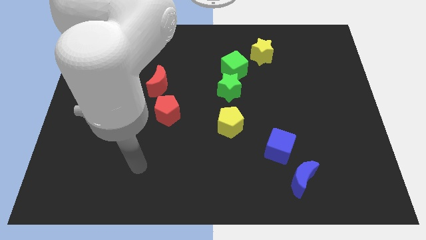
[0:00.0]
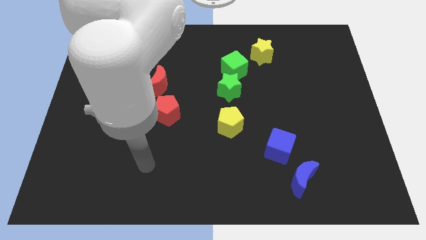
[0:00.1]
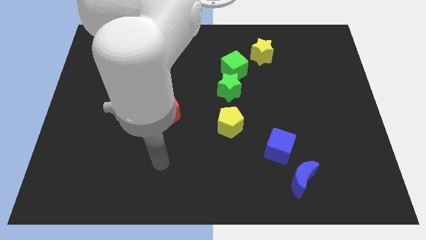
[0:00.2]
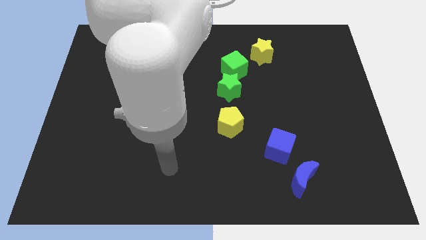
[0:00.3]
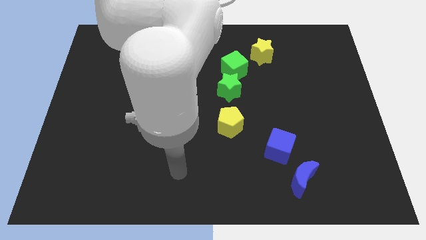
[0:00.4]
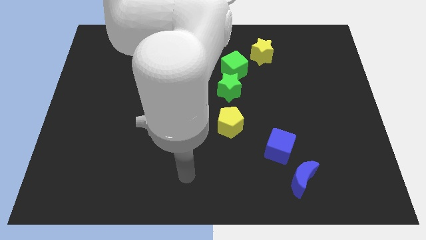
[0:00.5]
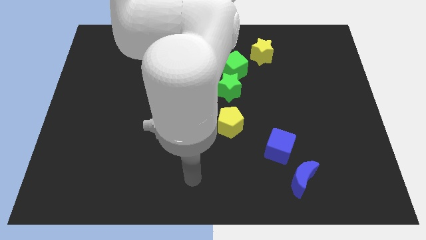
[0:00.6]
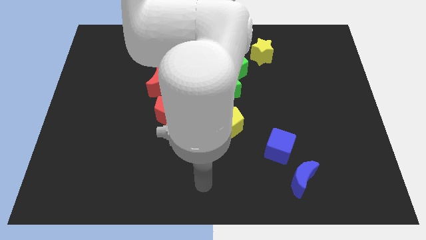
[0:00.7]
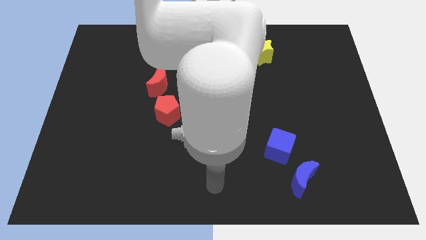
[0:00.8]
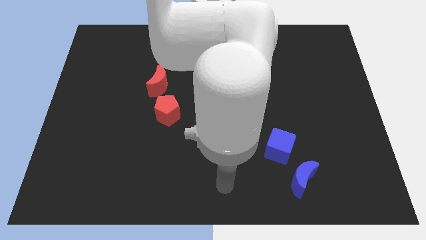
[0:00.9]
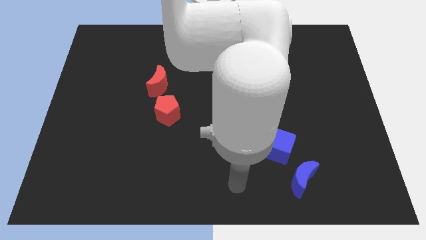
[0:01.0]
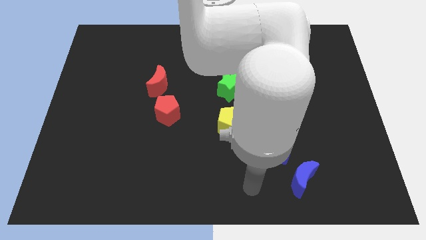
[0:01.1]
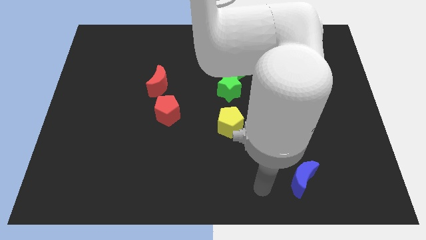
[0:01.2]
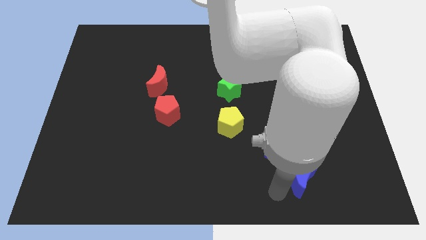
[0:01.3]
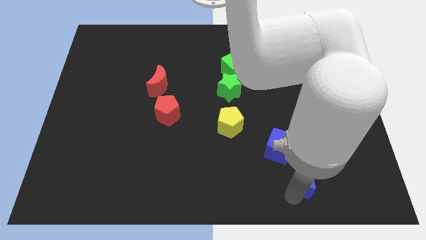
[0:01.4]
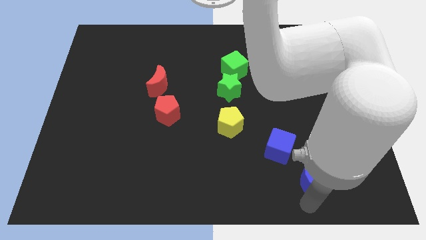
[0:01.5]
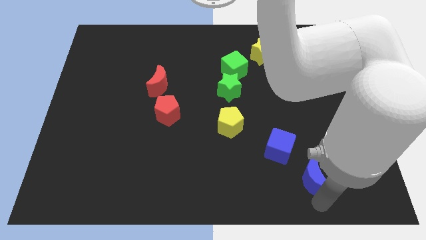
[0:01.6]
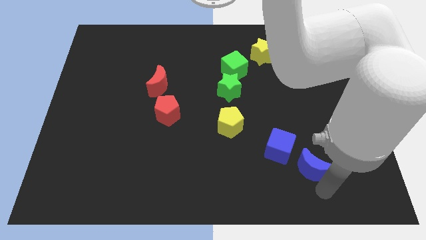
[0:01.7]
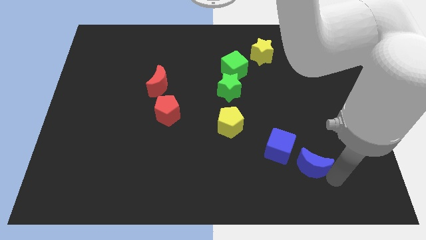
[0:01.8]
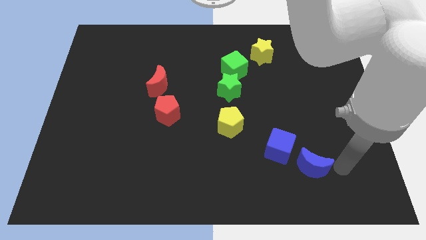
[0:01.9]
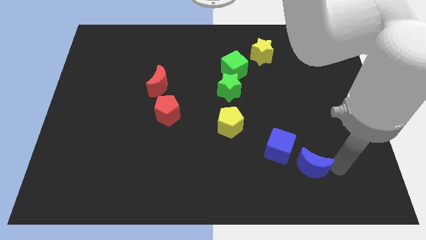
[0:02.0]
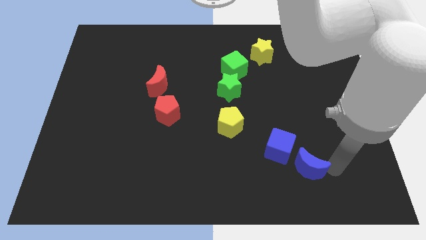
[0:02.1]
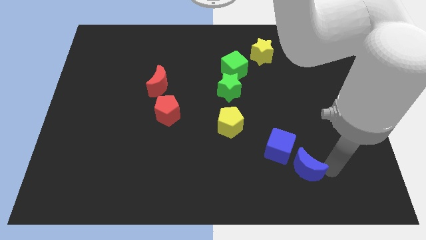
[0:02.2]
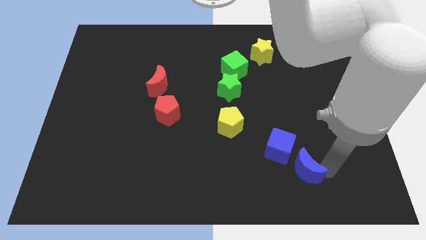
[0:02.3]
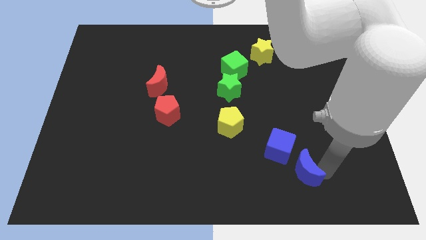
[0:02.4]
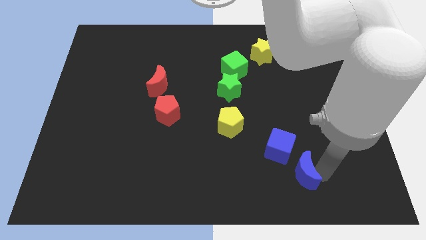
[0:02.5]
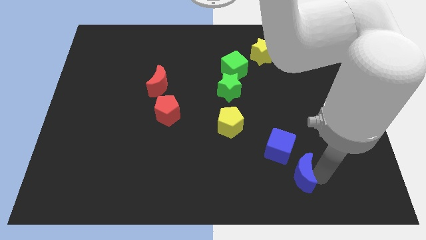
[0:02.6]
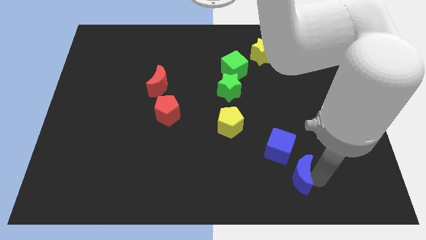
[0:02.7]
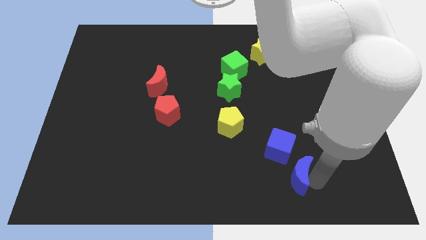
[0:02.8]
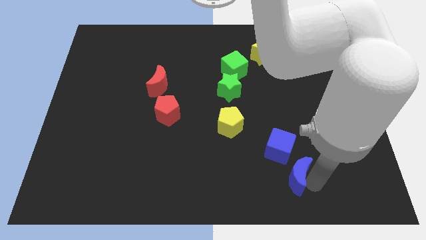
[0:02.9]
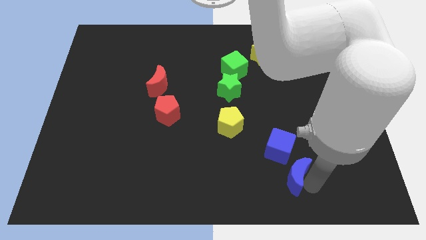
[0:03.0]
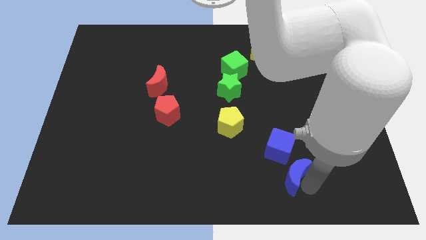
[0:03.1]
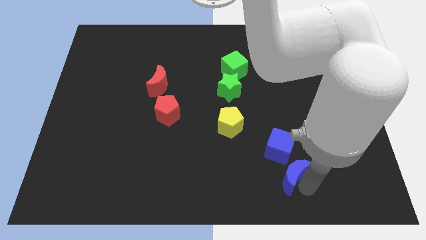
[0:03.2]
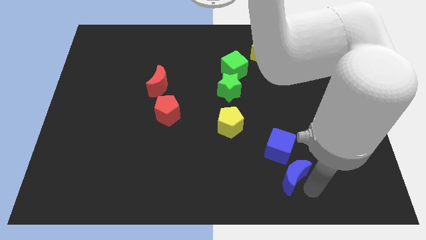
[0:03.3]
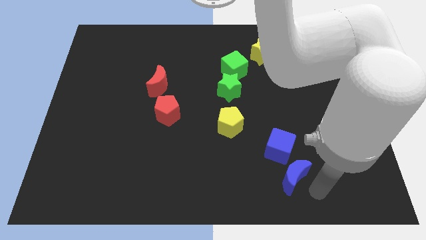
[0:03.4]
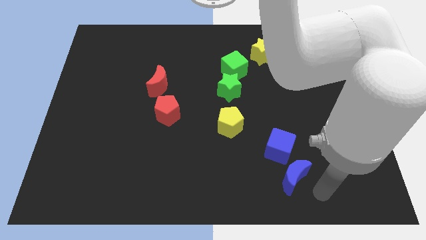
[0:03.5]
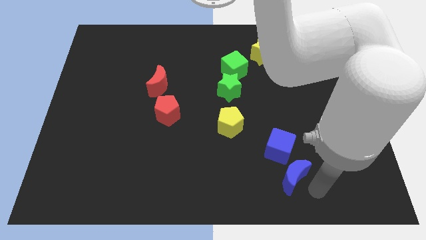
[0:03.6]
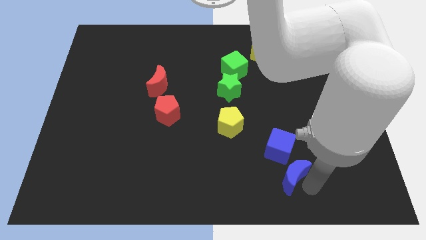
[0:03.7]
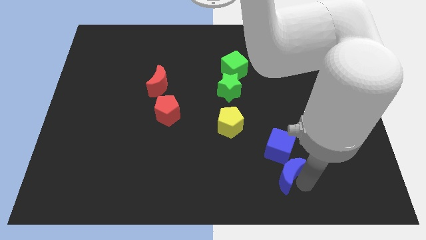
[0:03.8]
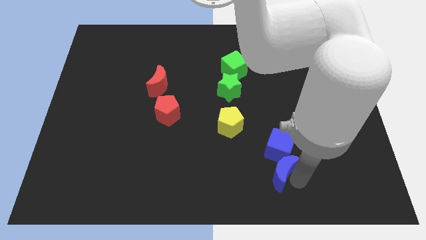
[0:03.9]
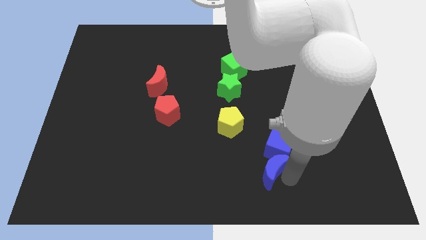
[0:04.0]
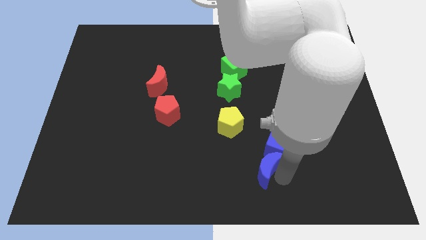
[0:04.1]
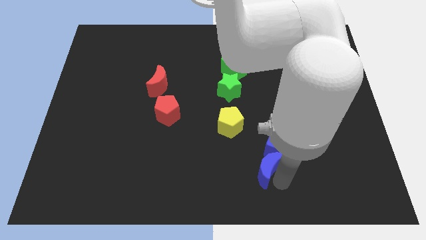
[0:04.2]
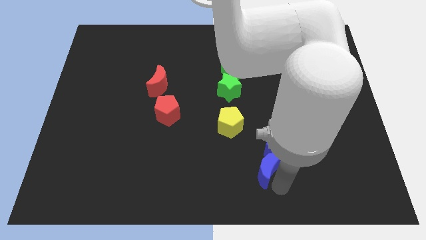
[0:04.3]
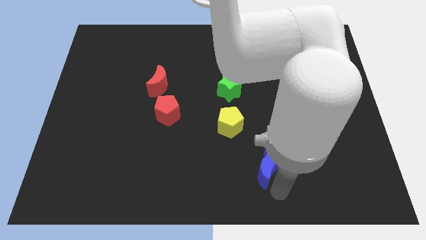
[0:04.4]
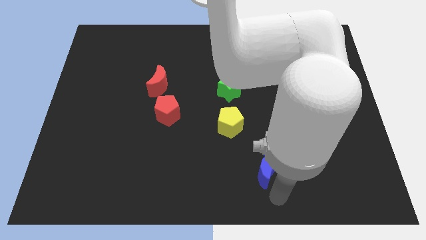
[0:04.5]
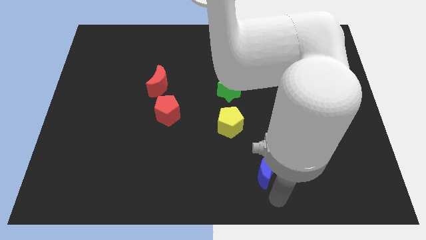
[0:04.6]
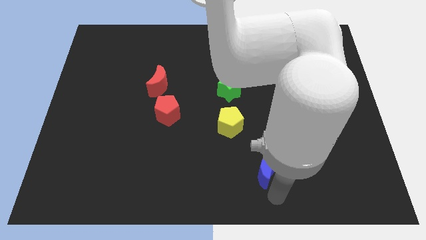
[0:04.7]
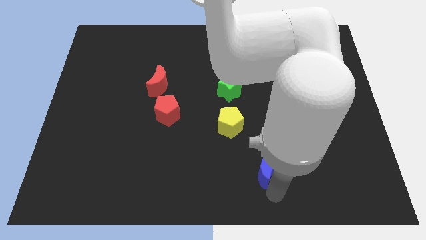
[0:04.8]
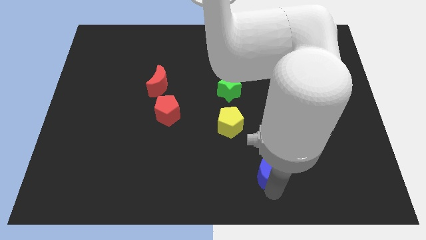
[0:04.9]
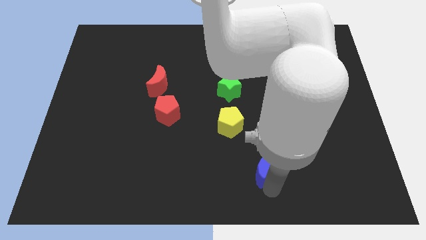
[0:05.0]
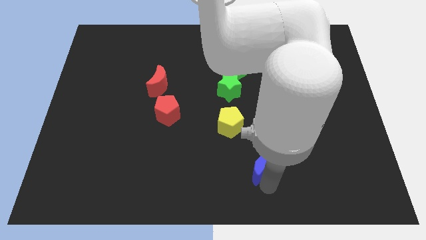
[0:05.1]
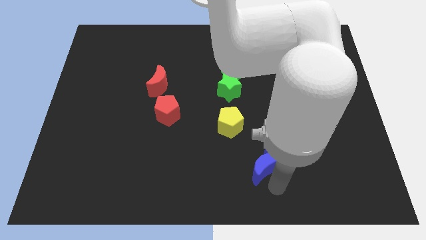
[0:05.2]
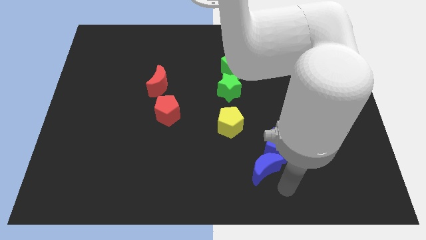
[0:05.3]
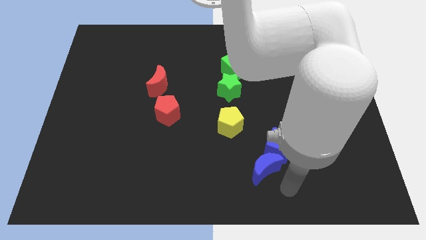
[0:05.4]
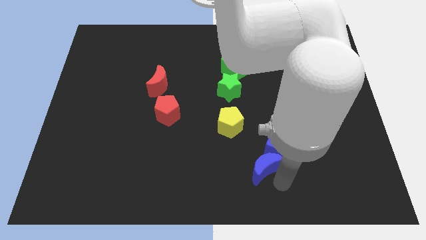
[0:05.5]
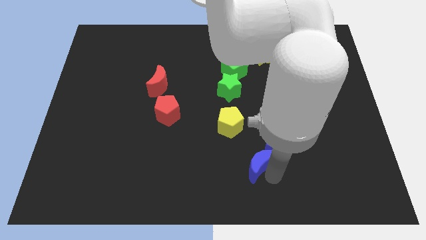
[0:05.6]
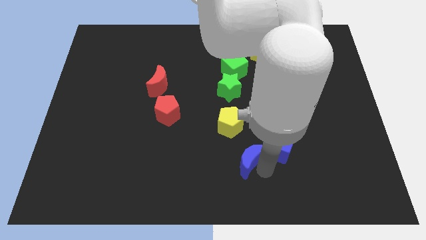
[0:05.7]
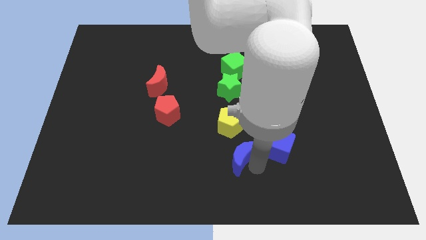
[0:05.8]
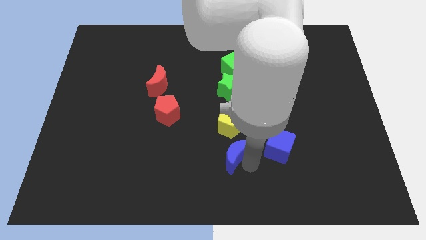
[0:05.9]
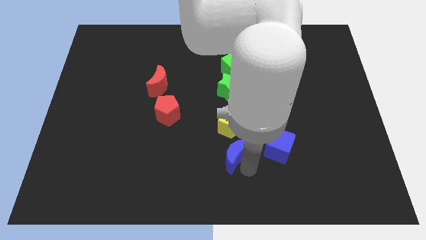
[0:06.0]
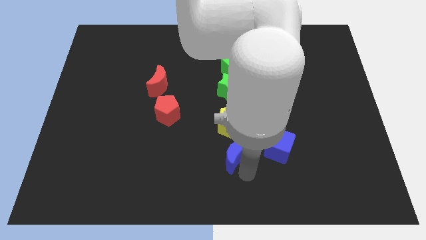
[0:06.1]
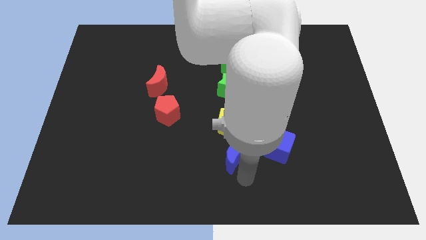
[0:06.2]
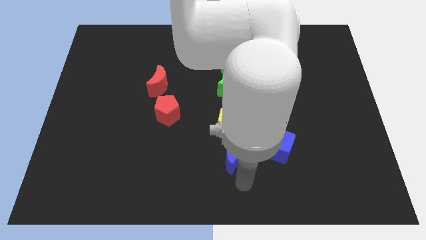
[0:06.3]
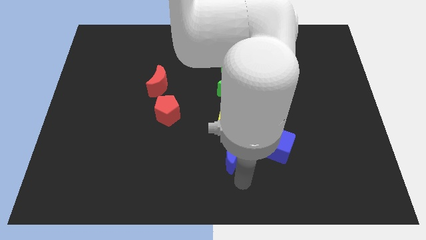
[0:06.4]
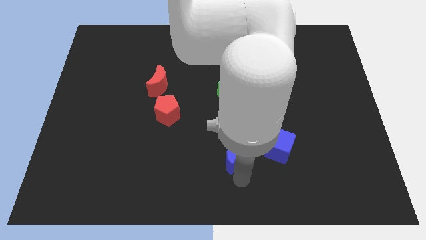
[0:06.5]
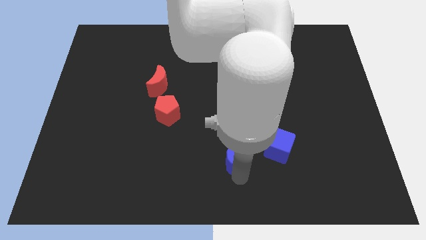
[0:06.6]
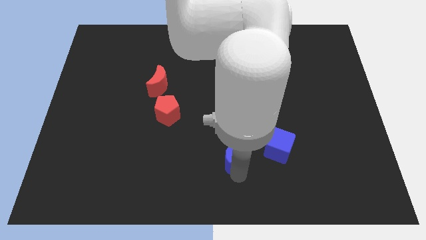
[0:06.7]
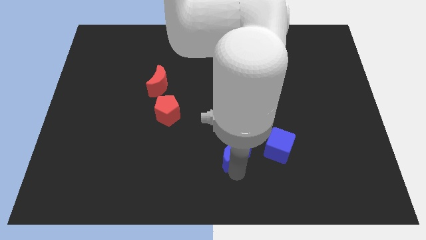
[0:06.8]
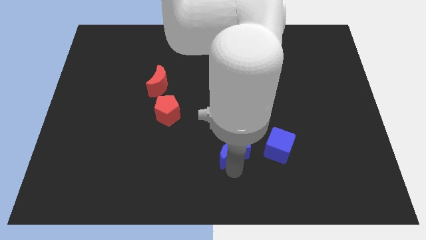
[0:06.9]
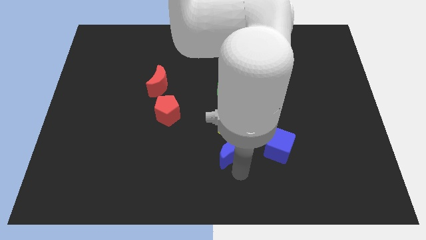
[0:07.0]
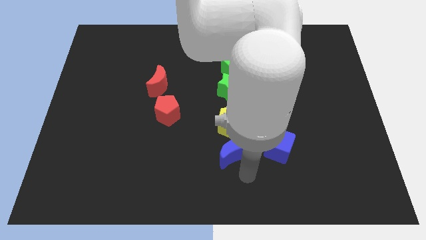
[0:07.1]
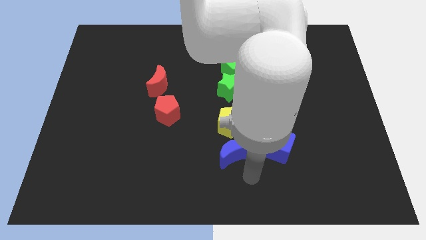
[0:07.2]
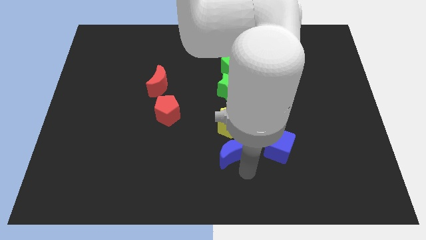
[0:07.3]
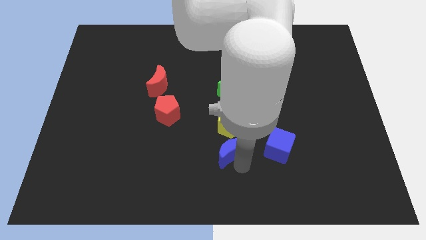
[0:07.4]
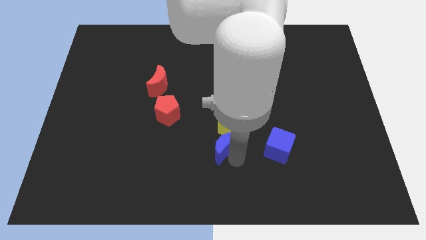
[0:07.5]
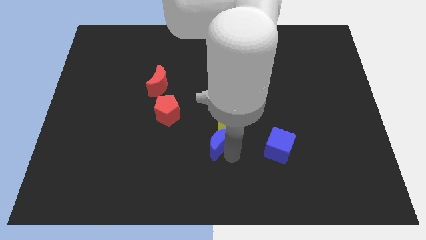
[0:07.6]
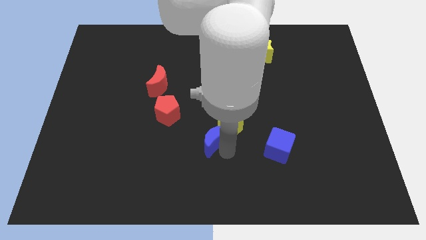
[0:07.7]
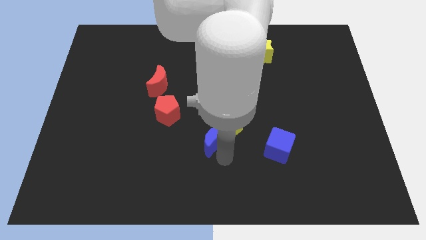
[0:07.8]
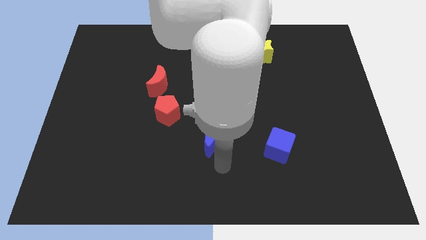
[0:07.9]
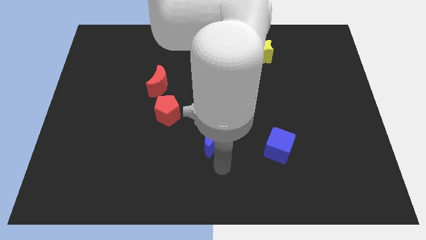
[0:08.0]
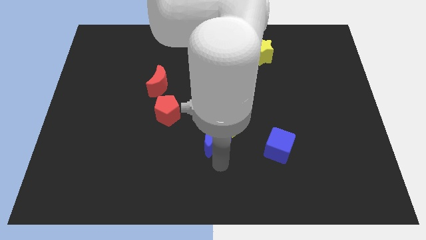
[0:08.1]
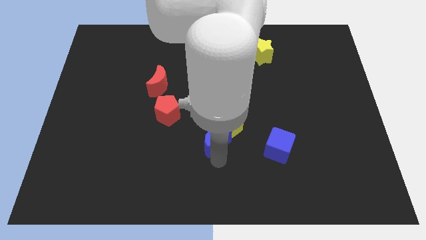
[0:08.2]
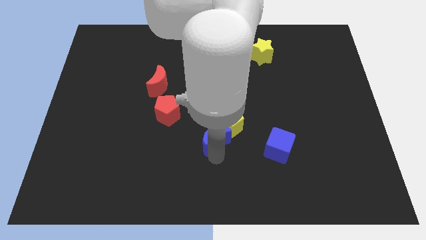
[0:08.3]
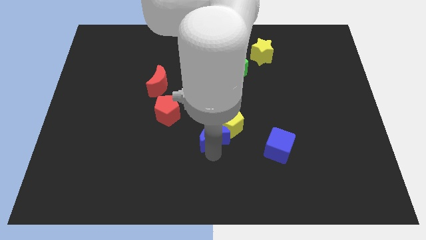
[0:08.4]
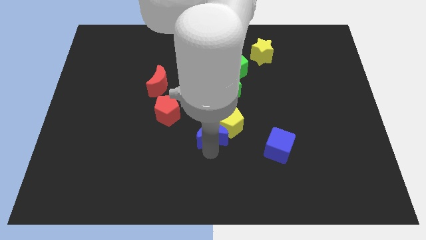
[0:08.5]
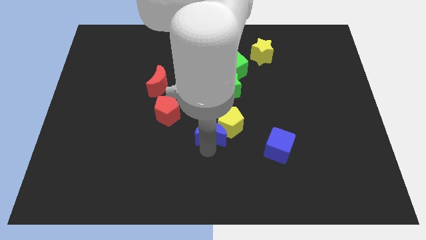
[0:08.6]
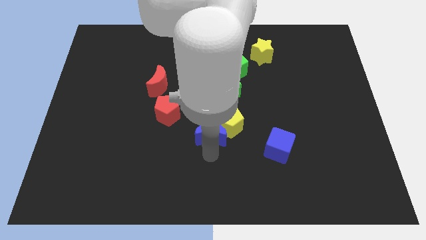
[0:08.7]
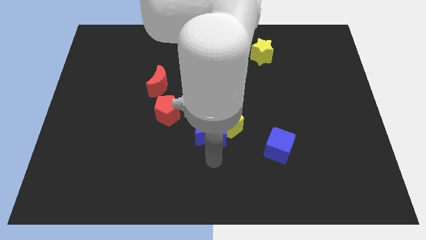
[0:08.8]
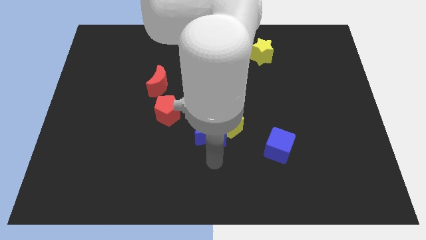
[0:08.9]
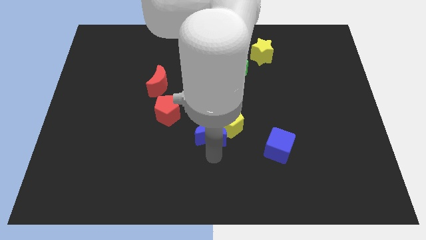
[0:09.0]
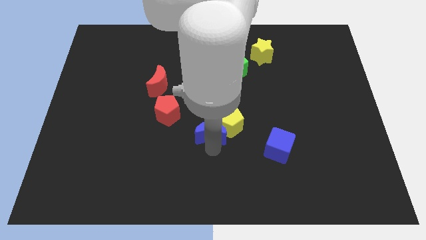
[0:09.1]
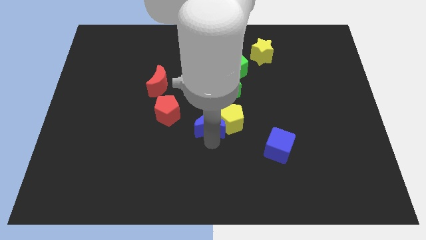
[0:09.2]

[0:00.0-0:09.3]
push the blue moon upwards and left diagonally
